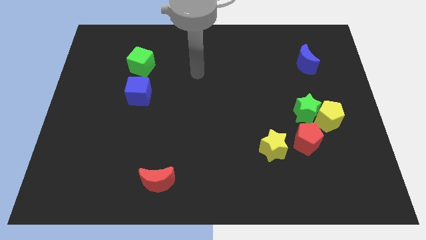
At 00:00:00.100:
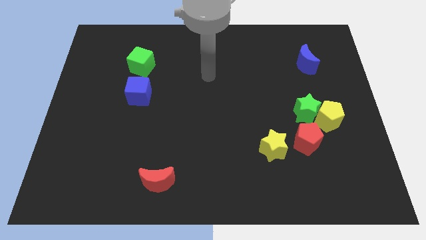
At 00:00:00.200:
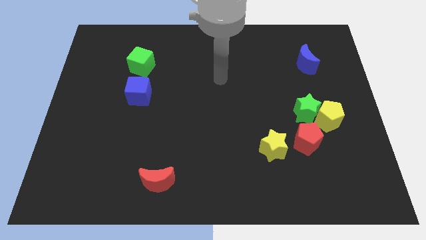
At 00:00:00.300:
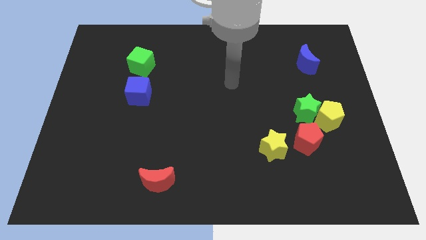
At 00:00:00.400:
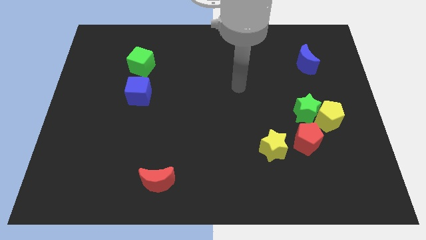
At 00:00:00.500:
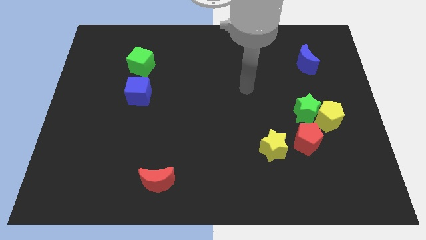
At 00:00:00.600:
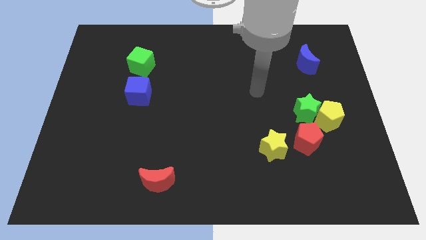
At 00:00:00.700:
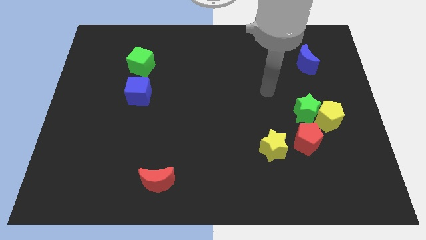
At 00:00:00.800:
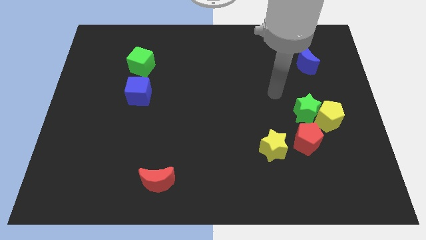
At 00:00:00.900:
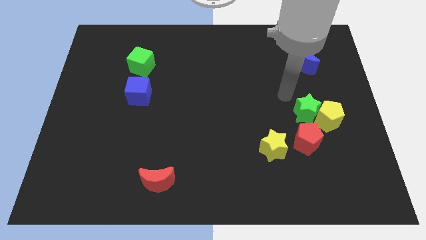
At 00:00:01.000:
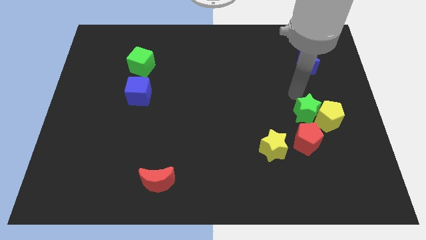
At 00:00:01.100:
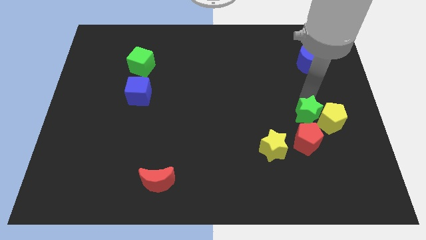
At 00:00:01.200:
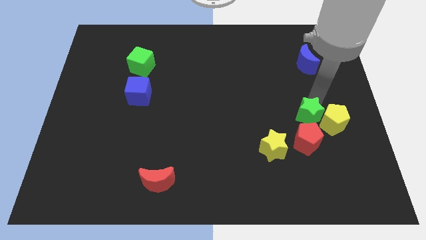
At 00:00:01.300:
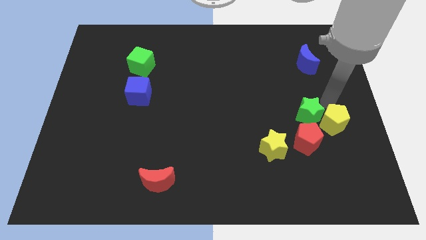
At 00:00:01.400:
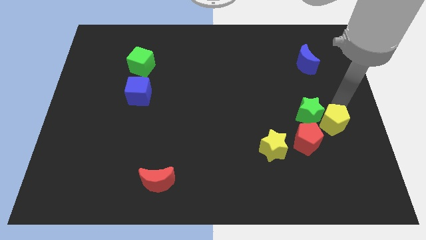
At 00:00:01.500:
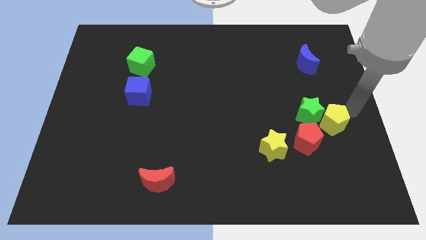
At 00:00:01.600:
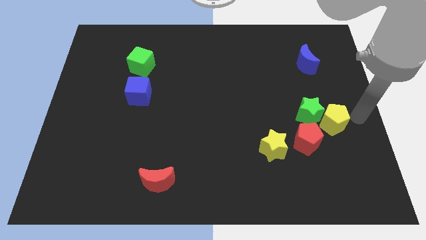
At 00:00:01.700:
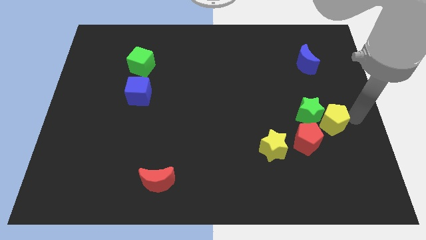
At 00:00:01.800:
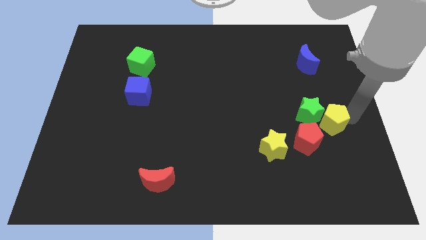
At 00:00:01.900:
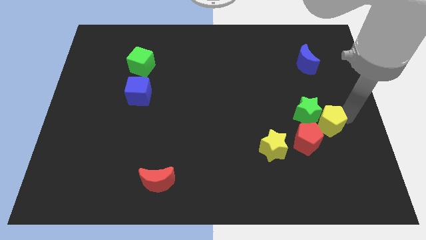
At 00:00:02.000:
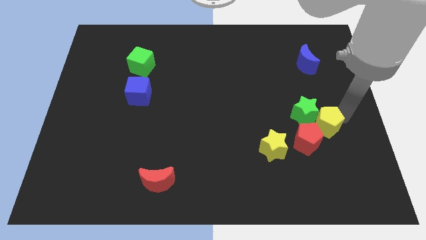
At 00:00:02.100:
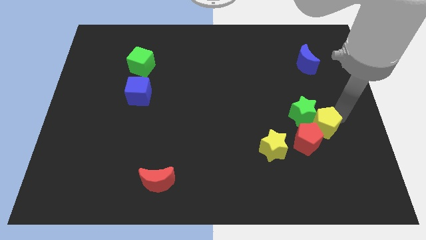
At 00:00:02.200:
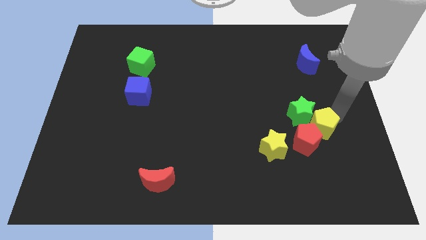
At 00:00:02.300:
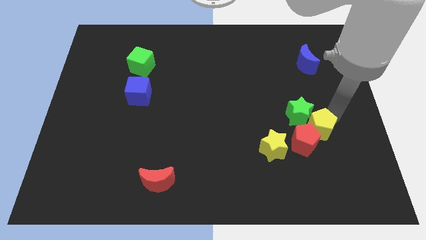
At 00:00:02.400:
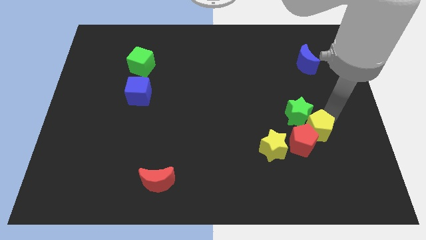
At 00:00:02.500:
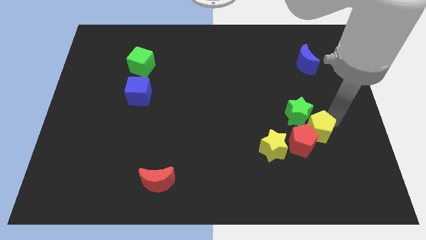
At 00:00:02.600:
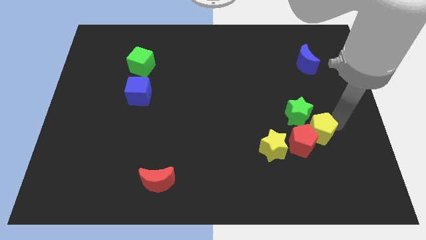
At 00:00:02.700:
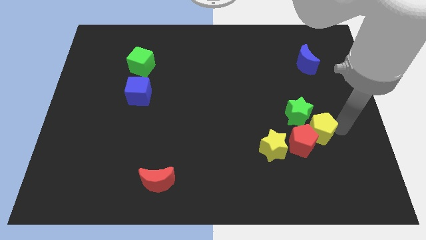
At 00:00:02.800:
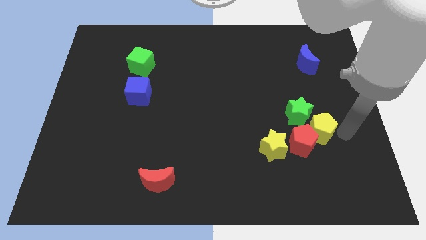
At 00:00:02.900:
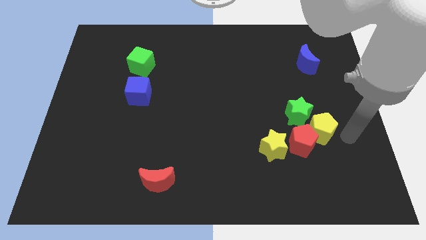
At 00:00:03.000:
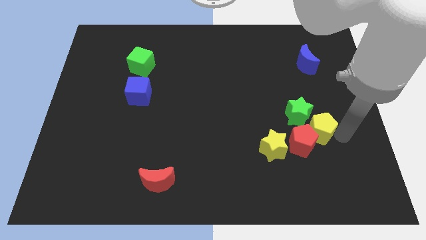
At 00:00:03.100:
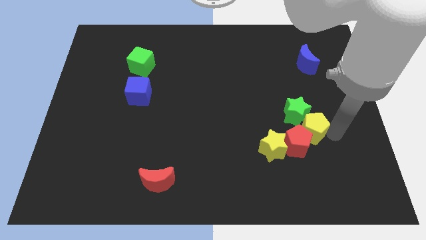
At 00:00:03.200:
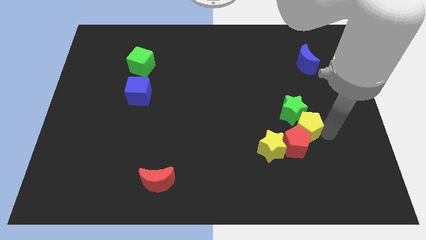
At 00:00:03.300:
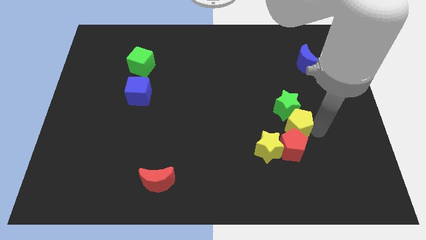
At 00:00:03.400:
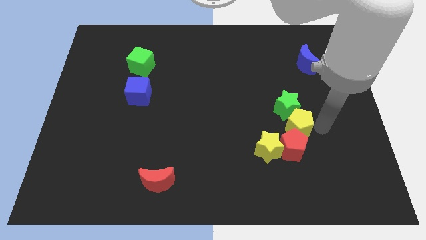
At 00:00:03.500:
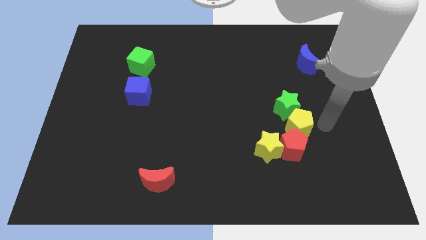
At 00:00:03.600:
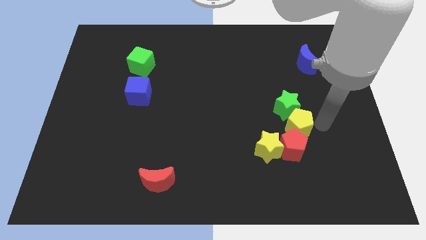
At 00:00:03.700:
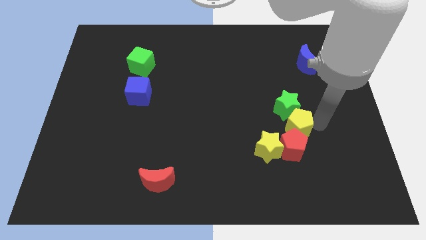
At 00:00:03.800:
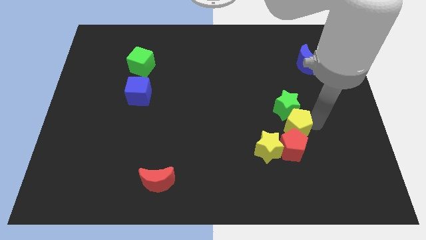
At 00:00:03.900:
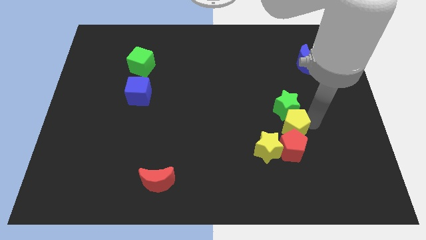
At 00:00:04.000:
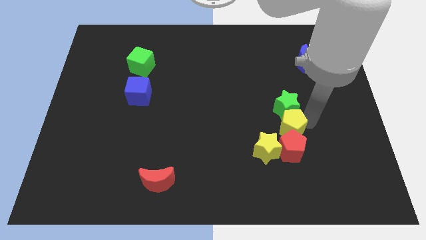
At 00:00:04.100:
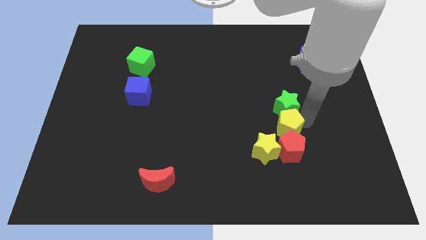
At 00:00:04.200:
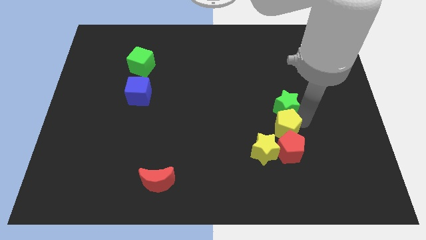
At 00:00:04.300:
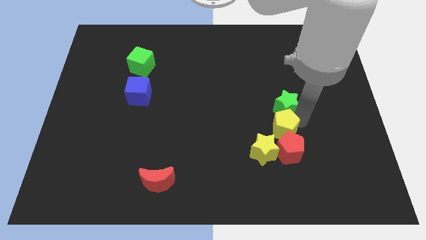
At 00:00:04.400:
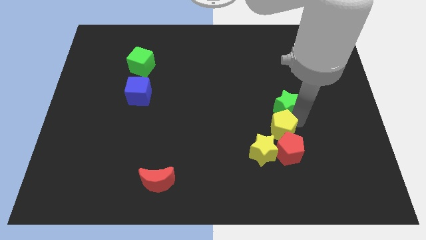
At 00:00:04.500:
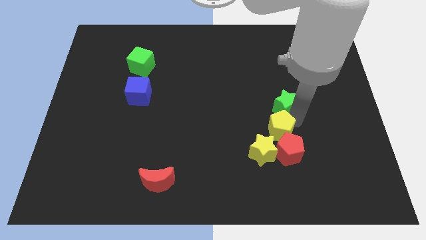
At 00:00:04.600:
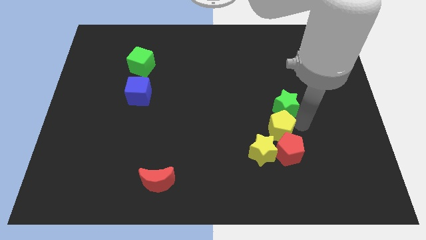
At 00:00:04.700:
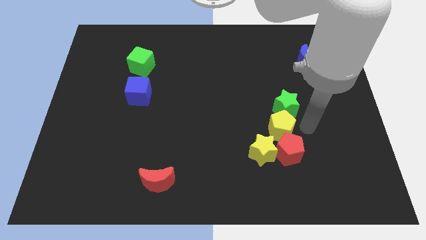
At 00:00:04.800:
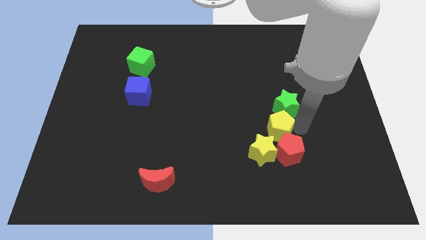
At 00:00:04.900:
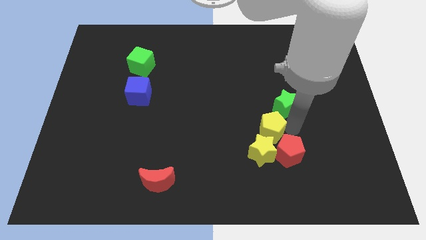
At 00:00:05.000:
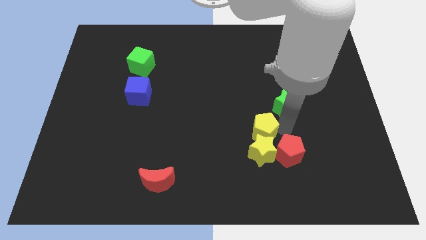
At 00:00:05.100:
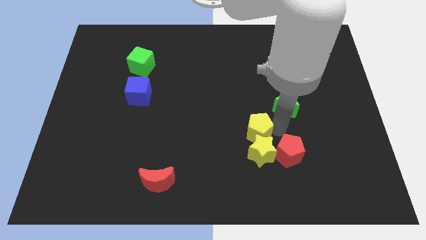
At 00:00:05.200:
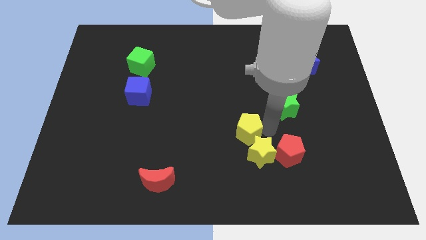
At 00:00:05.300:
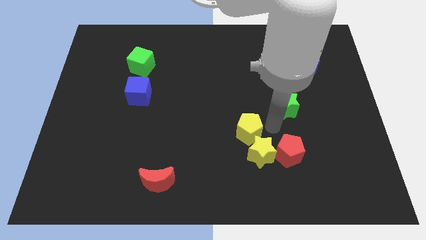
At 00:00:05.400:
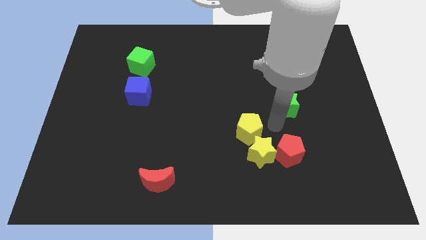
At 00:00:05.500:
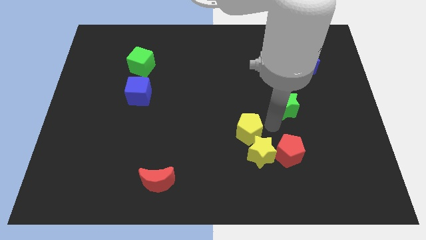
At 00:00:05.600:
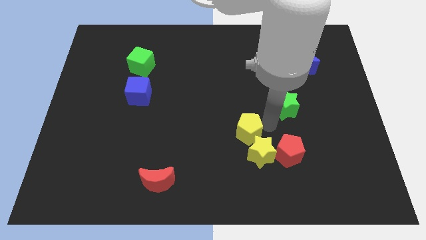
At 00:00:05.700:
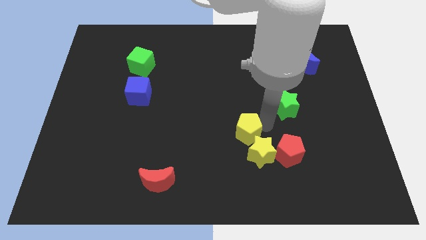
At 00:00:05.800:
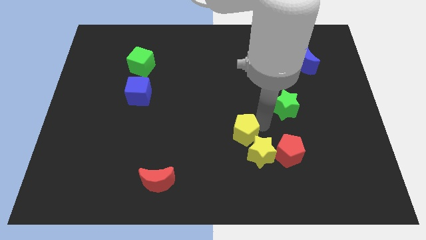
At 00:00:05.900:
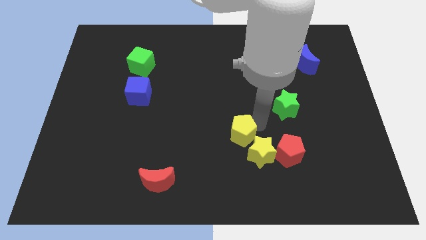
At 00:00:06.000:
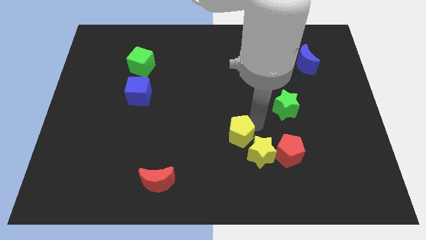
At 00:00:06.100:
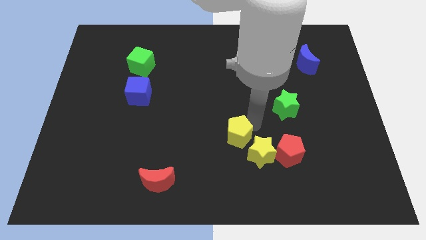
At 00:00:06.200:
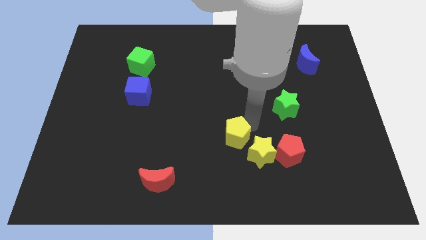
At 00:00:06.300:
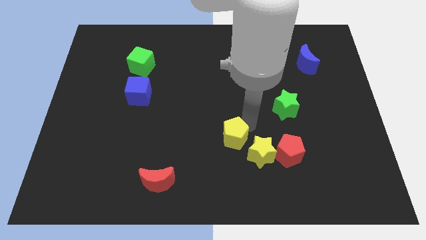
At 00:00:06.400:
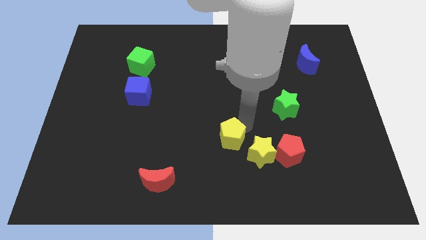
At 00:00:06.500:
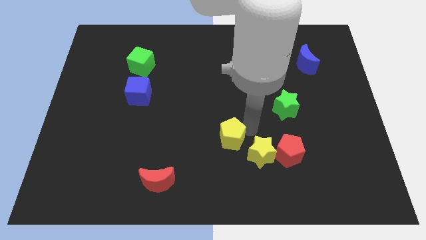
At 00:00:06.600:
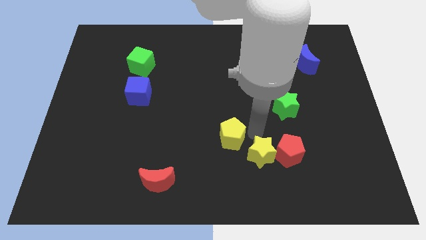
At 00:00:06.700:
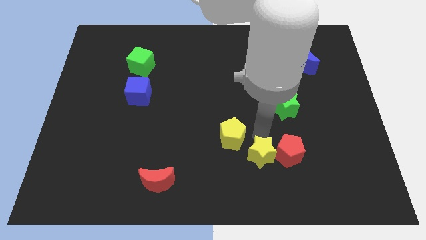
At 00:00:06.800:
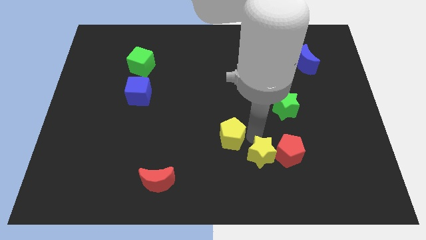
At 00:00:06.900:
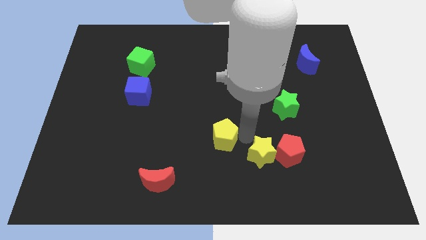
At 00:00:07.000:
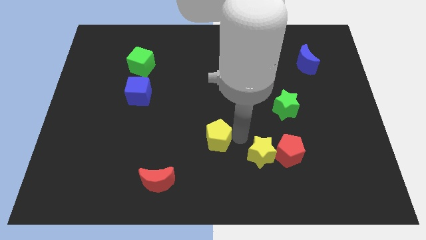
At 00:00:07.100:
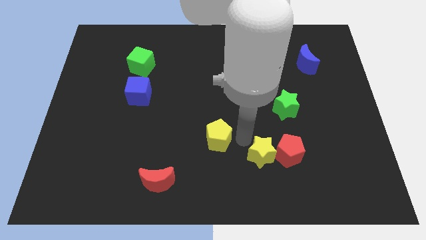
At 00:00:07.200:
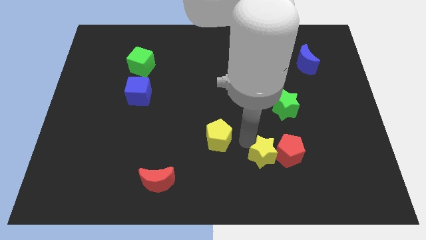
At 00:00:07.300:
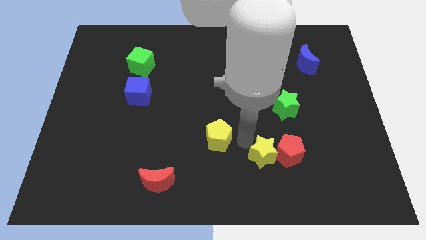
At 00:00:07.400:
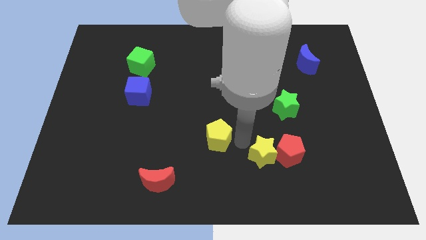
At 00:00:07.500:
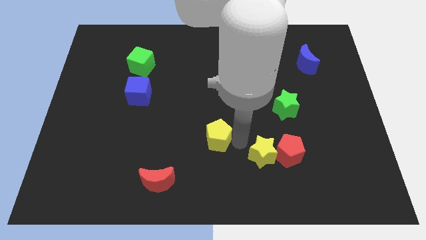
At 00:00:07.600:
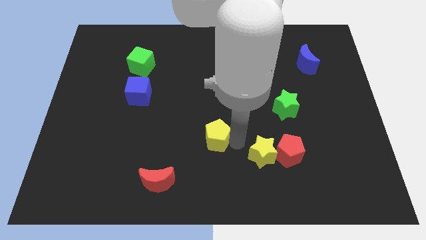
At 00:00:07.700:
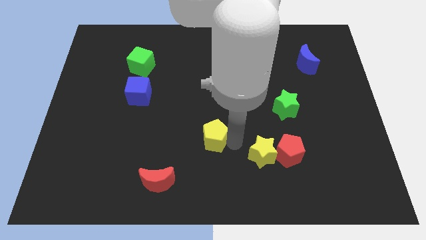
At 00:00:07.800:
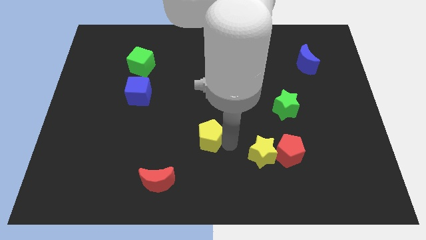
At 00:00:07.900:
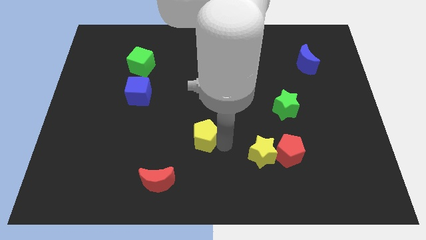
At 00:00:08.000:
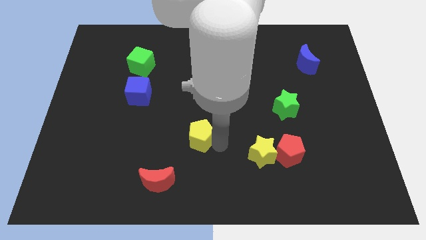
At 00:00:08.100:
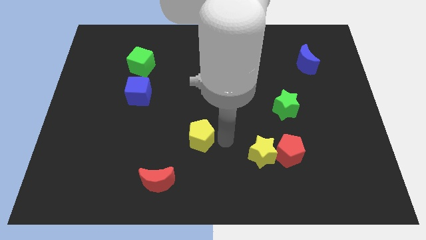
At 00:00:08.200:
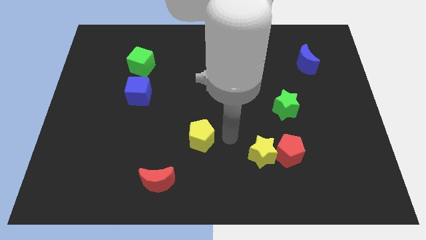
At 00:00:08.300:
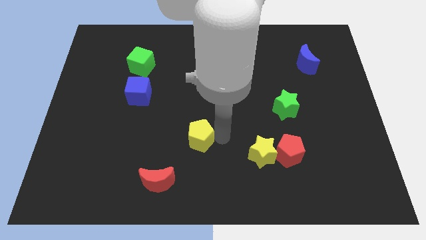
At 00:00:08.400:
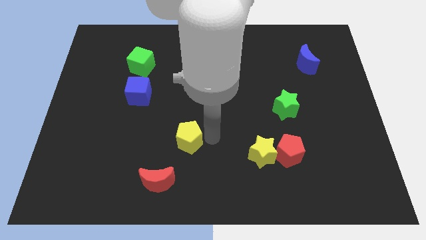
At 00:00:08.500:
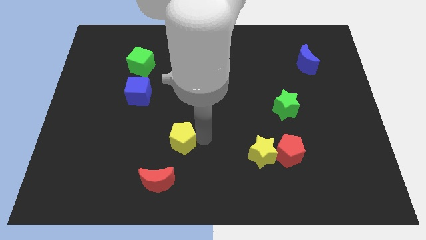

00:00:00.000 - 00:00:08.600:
push the yellow pentagon to the top side of the red moon
